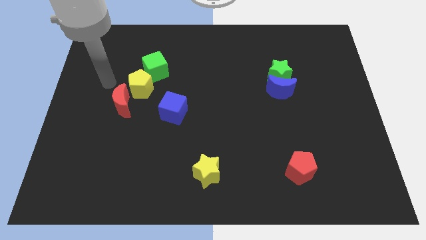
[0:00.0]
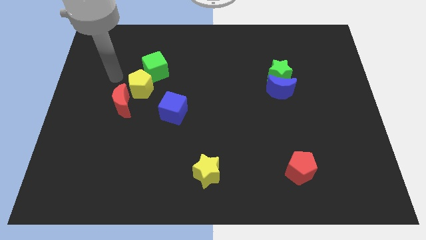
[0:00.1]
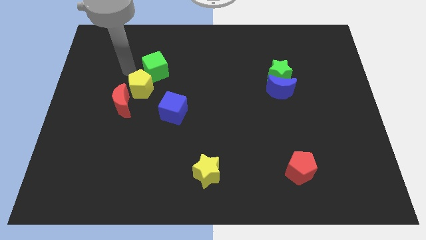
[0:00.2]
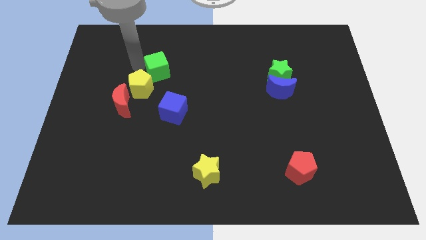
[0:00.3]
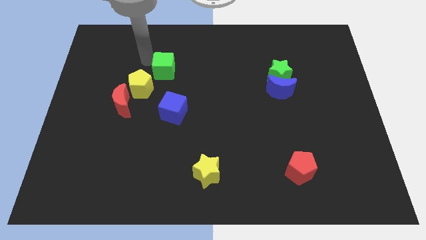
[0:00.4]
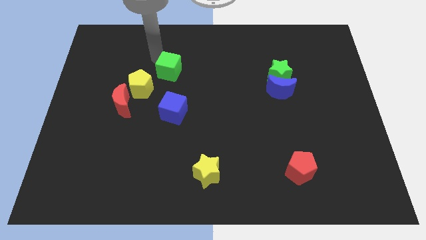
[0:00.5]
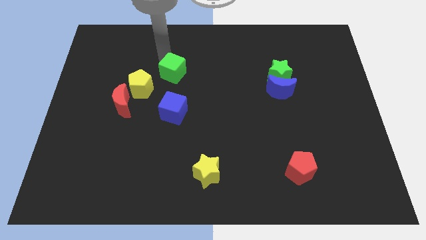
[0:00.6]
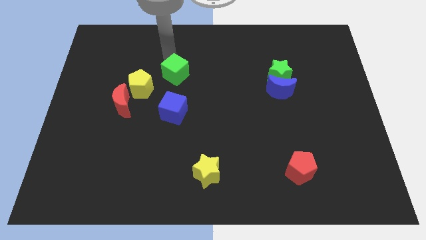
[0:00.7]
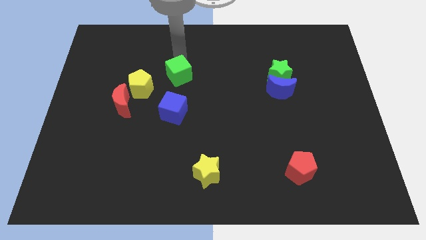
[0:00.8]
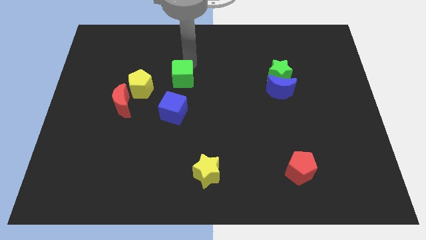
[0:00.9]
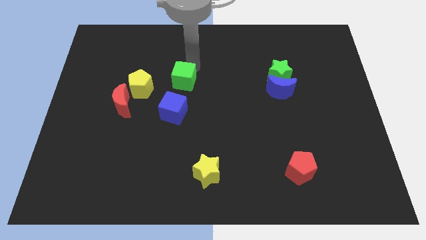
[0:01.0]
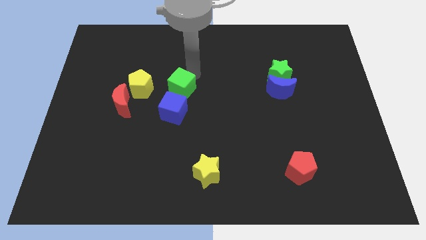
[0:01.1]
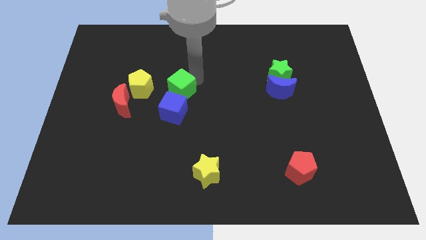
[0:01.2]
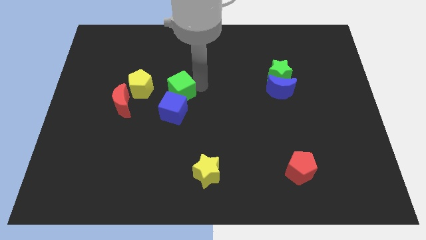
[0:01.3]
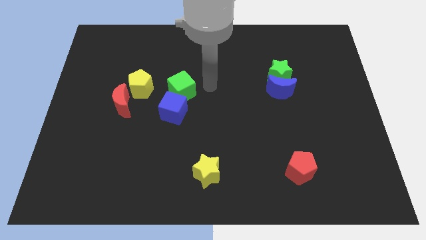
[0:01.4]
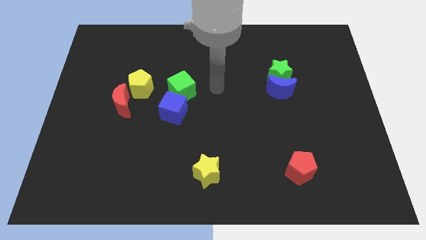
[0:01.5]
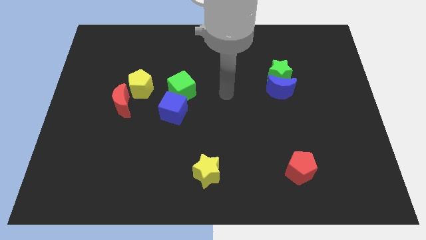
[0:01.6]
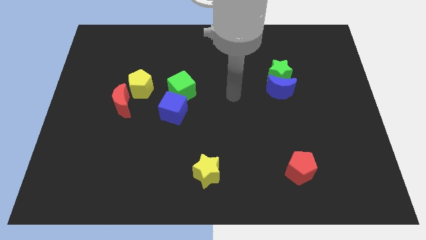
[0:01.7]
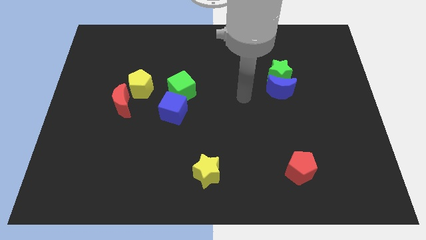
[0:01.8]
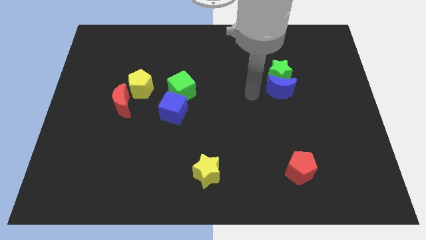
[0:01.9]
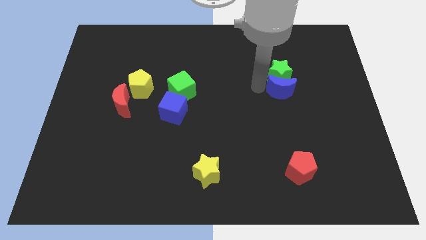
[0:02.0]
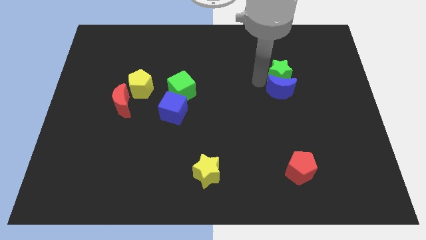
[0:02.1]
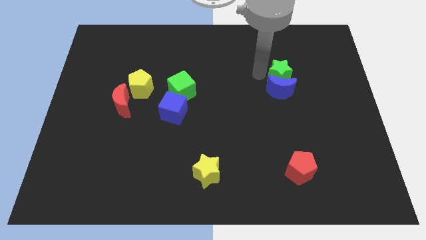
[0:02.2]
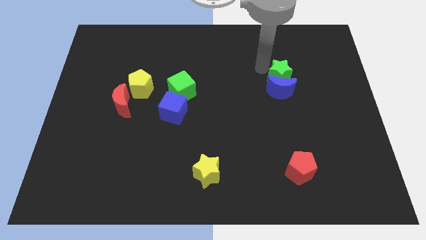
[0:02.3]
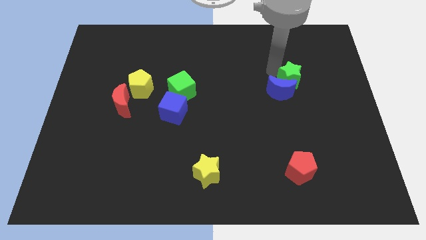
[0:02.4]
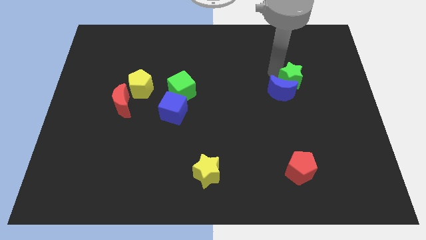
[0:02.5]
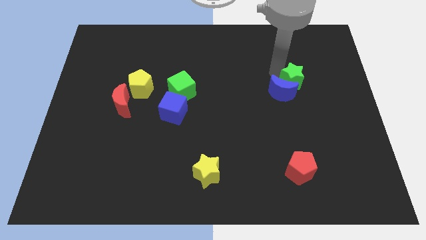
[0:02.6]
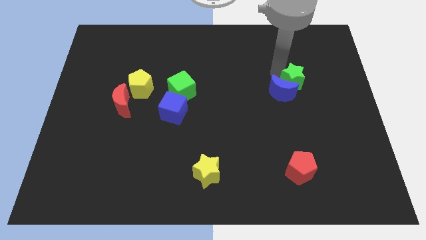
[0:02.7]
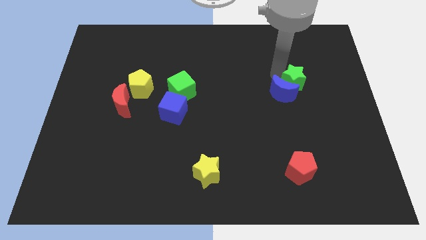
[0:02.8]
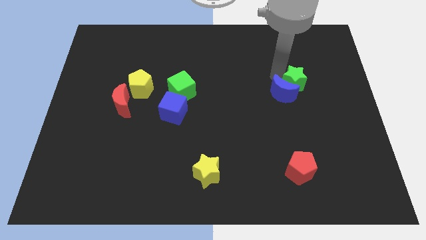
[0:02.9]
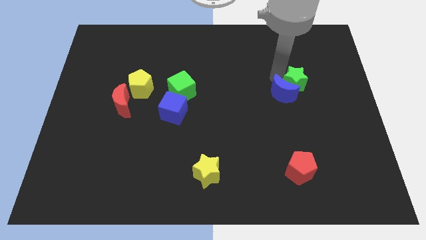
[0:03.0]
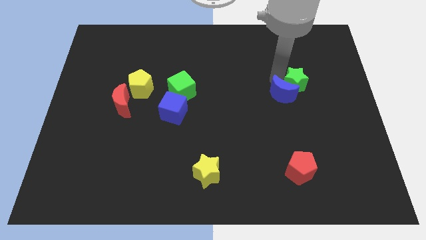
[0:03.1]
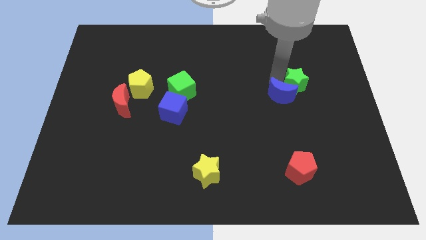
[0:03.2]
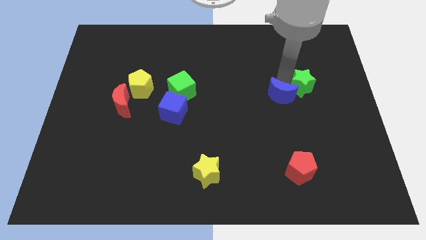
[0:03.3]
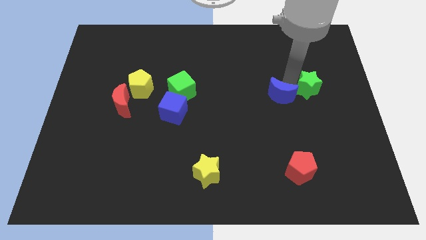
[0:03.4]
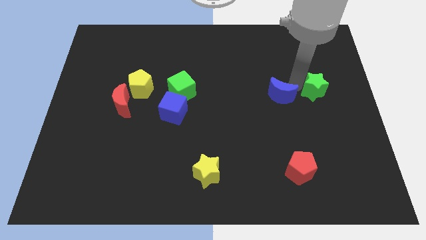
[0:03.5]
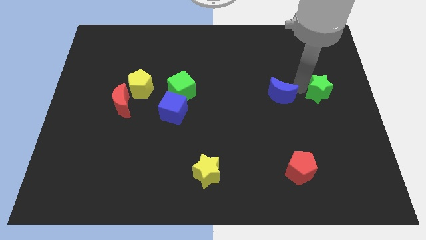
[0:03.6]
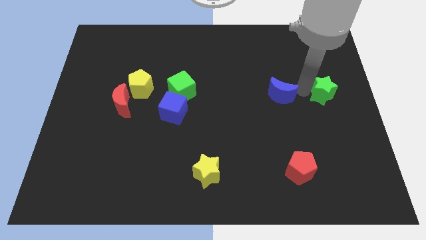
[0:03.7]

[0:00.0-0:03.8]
pull the blue moon apart from the green star

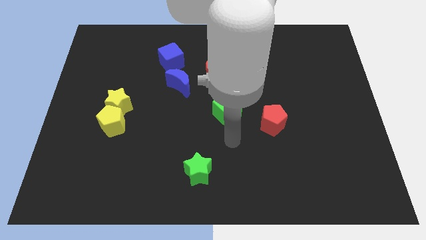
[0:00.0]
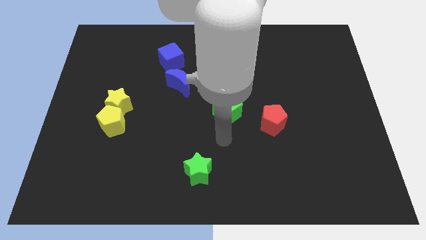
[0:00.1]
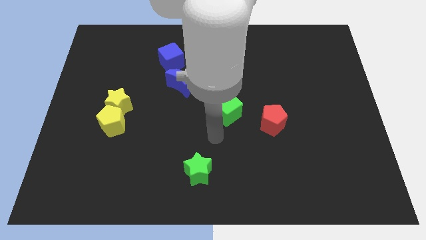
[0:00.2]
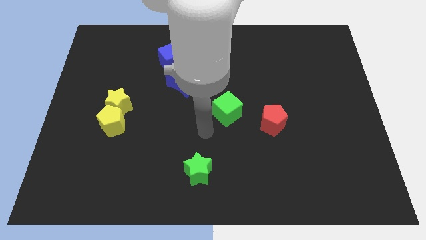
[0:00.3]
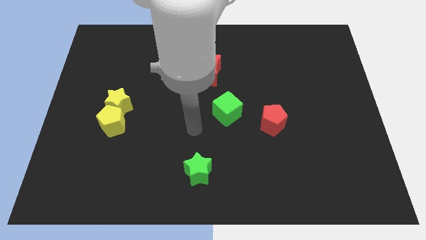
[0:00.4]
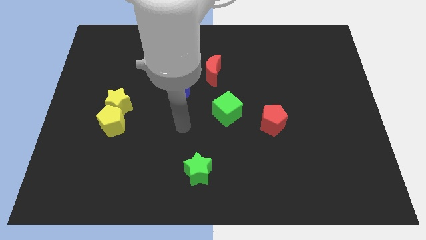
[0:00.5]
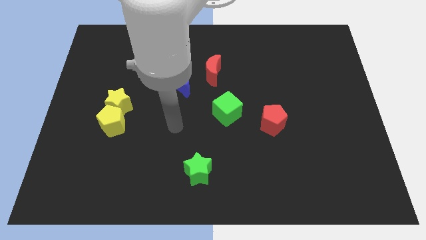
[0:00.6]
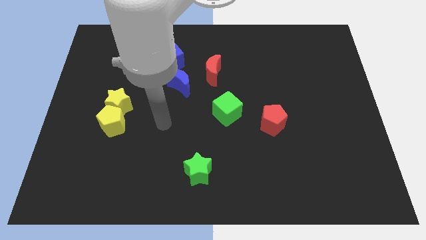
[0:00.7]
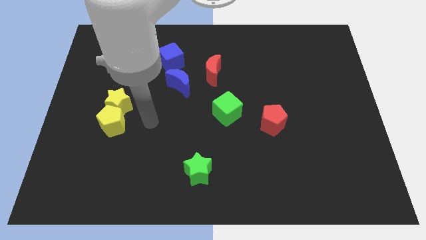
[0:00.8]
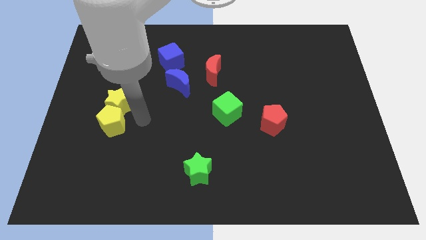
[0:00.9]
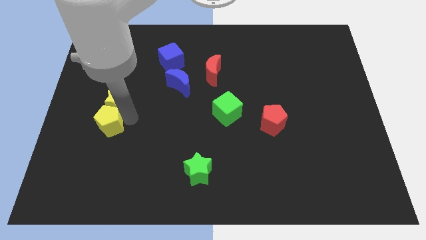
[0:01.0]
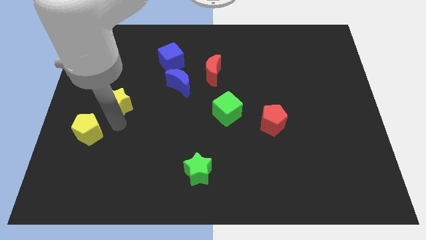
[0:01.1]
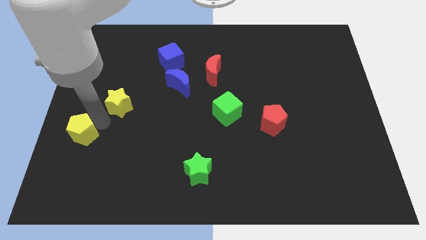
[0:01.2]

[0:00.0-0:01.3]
separate the yellow star from the yellow pentagon

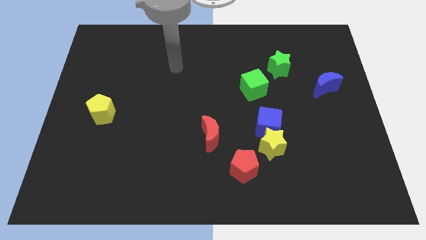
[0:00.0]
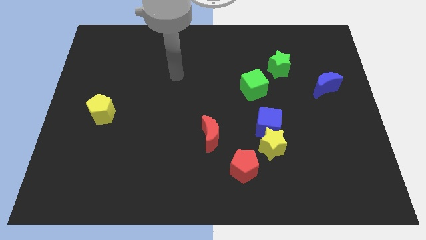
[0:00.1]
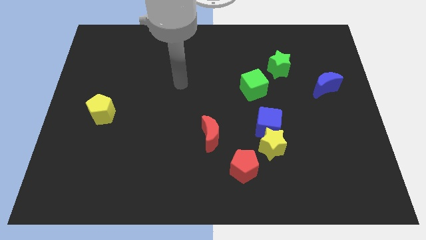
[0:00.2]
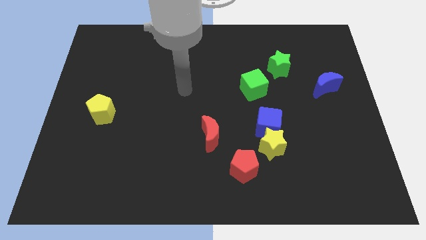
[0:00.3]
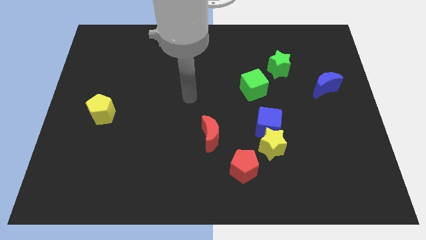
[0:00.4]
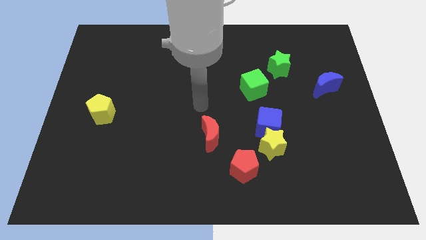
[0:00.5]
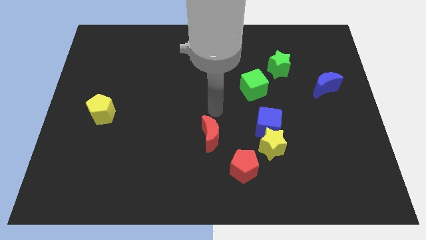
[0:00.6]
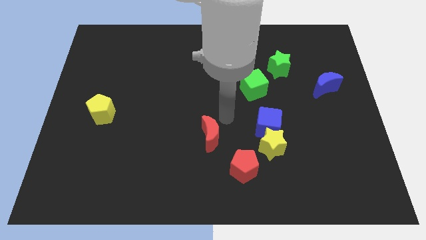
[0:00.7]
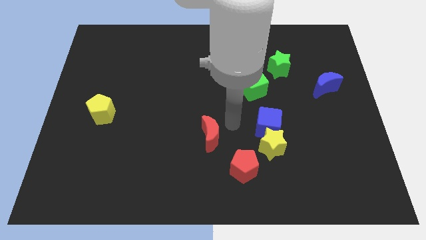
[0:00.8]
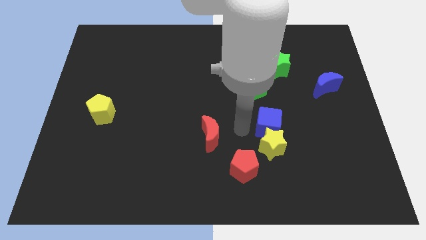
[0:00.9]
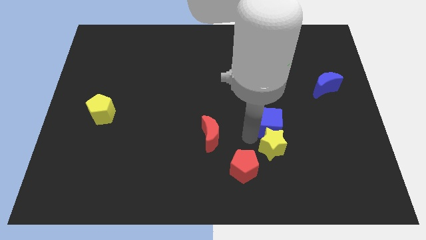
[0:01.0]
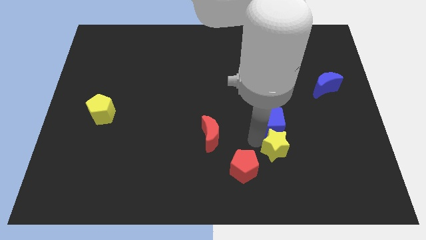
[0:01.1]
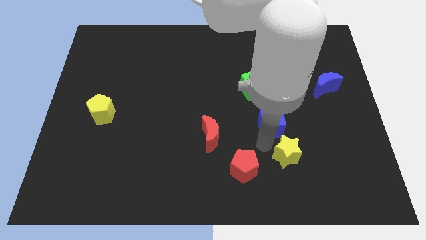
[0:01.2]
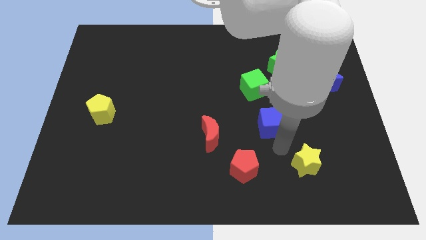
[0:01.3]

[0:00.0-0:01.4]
move the blue cube away from the yellow star

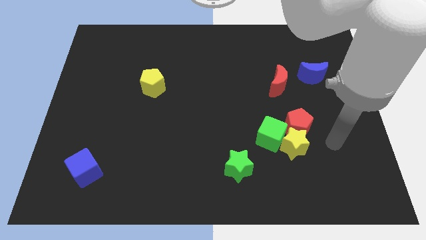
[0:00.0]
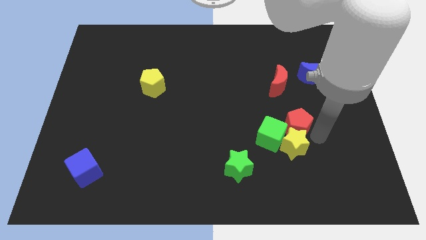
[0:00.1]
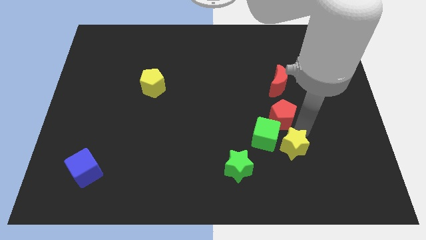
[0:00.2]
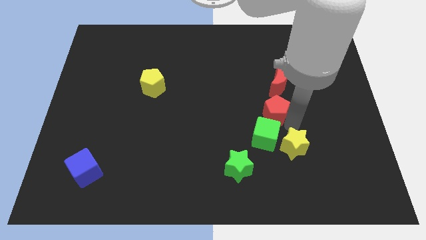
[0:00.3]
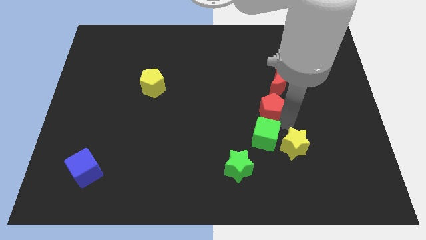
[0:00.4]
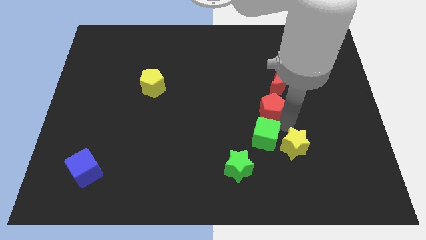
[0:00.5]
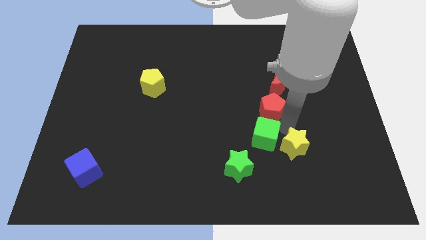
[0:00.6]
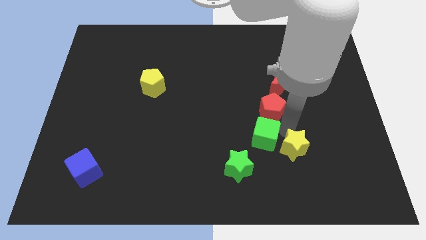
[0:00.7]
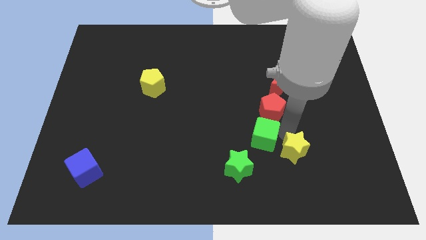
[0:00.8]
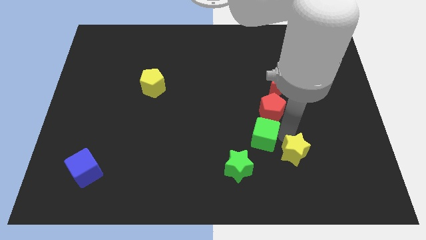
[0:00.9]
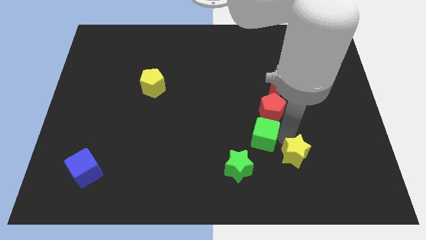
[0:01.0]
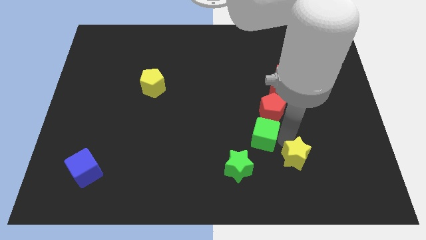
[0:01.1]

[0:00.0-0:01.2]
move the yellow star away from the red pentagon and green cube

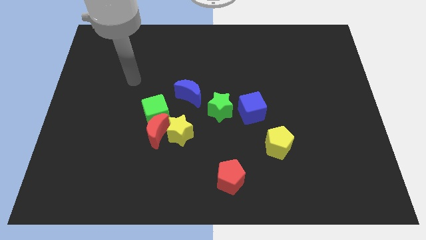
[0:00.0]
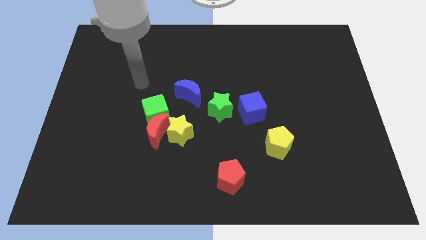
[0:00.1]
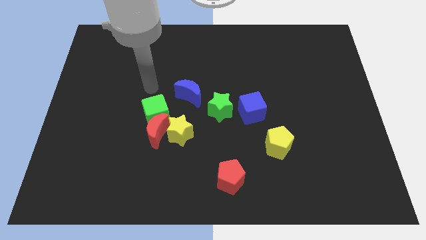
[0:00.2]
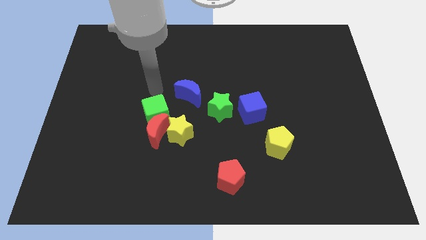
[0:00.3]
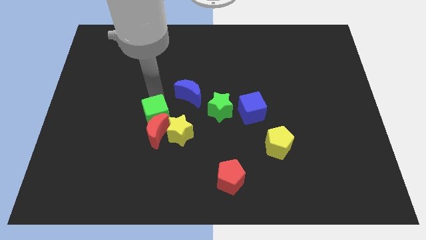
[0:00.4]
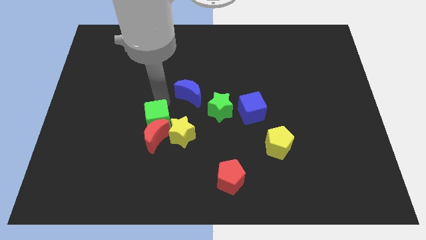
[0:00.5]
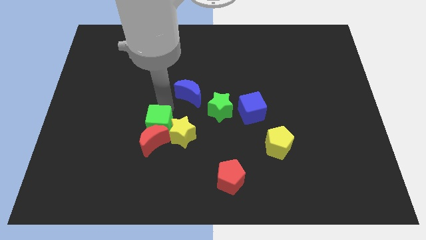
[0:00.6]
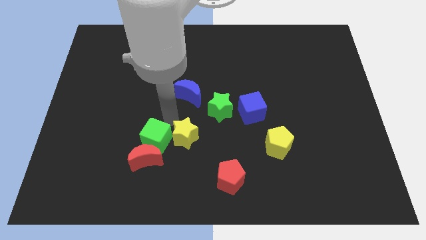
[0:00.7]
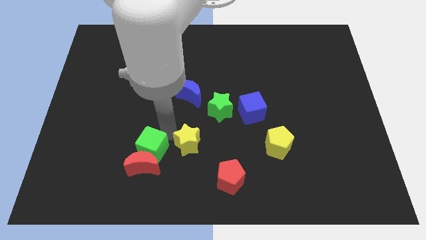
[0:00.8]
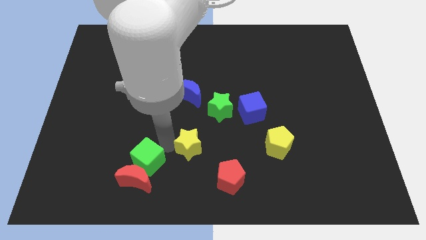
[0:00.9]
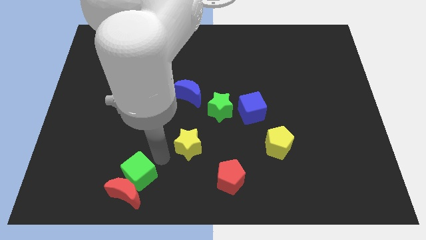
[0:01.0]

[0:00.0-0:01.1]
separate the red moon from the yellow star and green cube

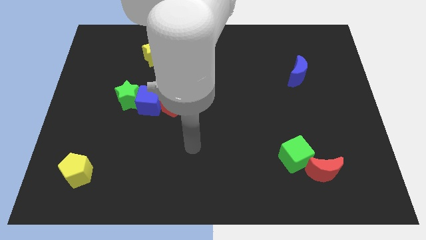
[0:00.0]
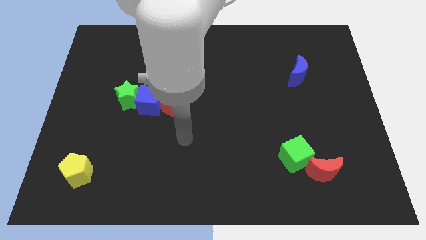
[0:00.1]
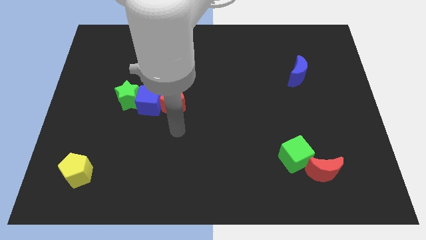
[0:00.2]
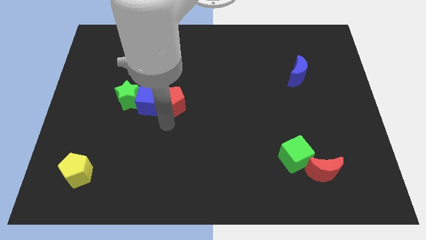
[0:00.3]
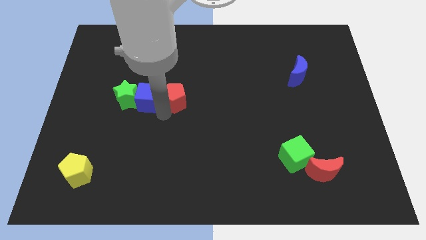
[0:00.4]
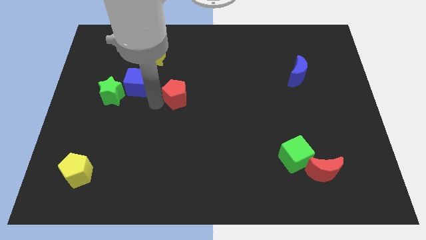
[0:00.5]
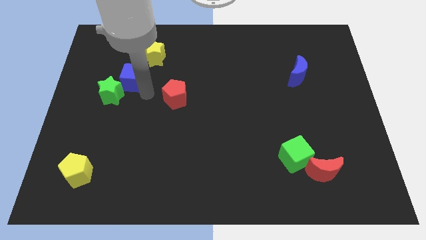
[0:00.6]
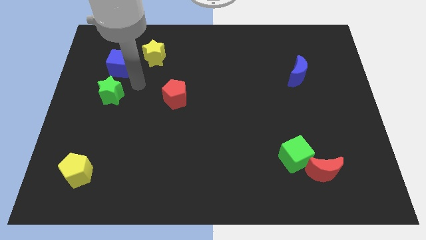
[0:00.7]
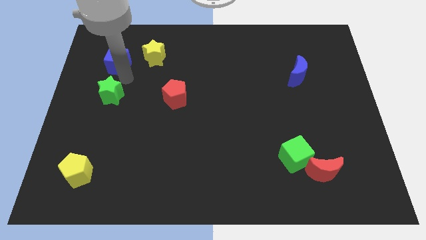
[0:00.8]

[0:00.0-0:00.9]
move the green star away from the blue cube
